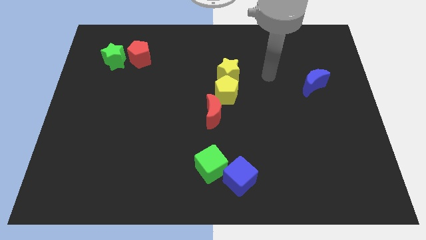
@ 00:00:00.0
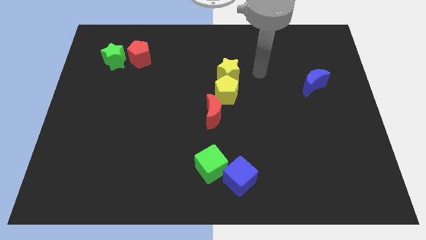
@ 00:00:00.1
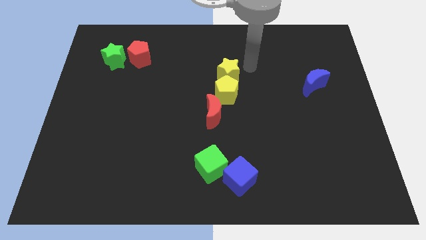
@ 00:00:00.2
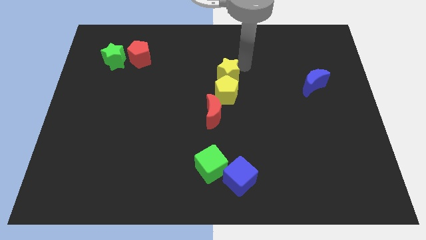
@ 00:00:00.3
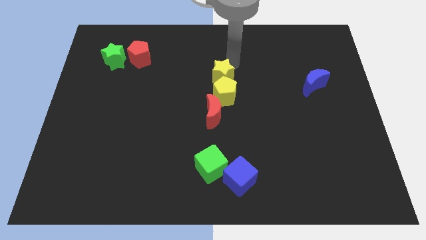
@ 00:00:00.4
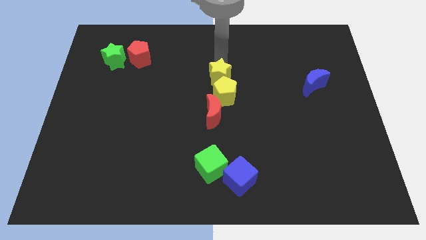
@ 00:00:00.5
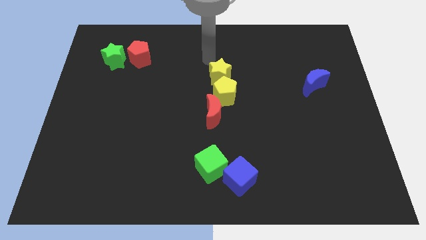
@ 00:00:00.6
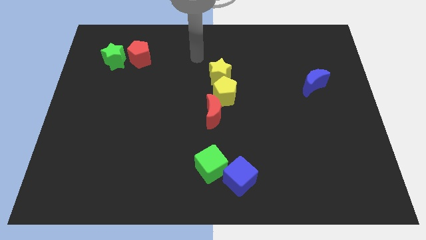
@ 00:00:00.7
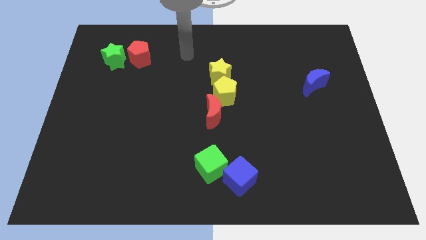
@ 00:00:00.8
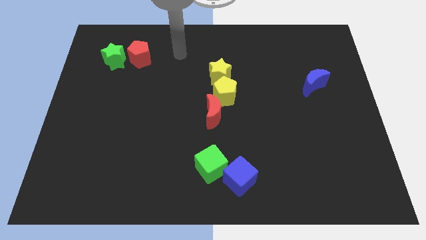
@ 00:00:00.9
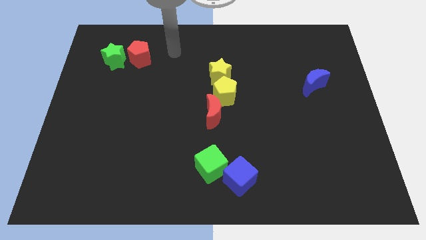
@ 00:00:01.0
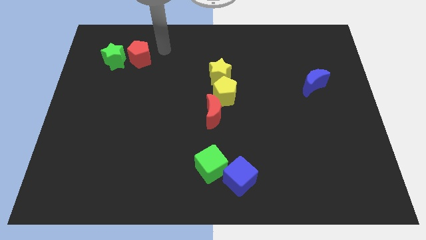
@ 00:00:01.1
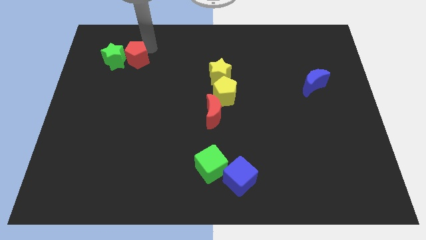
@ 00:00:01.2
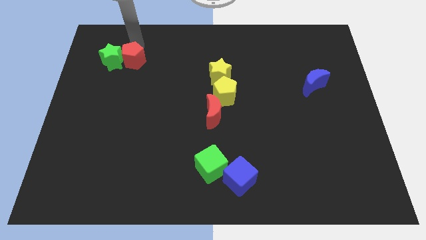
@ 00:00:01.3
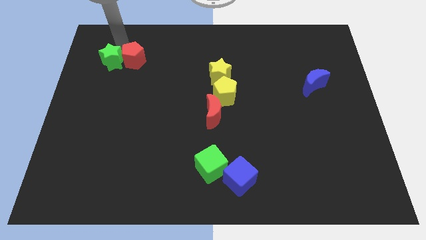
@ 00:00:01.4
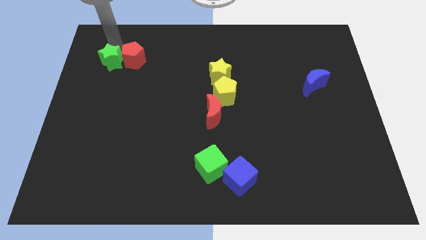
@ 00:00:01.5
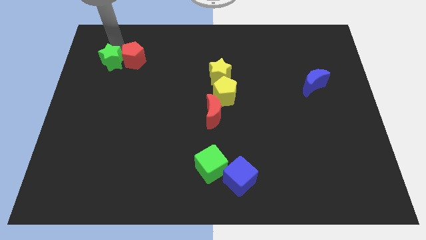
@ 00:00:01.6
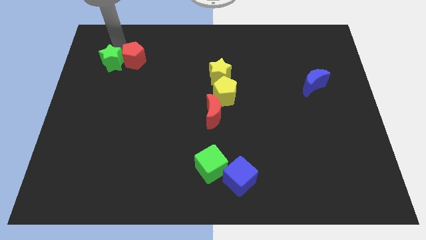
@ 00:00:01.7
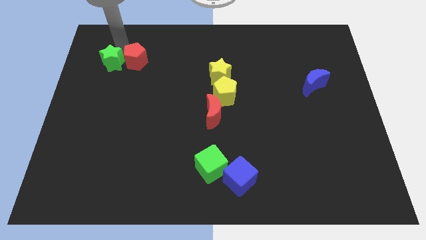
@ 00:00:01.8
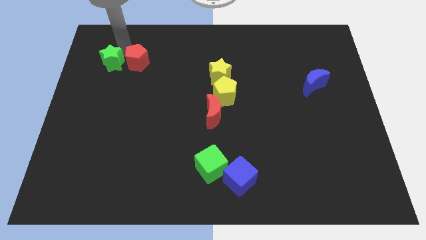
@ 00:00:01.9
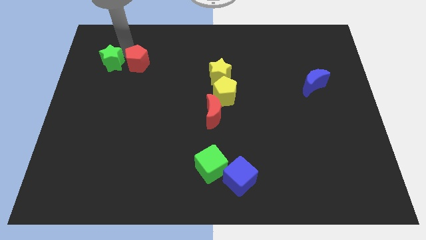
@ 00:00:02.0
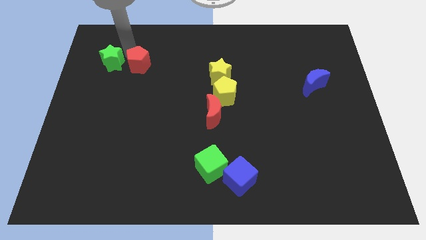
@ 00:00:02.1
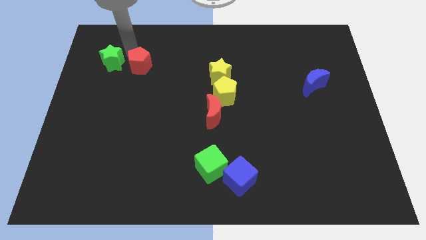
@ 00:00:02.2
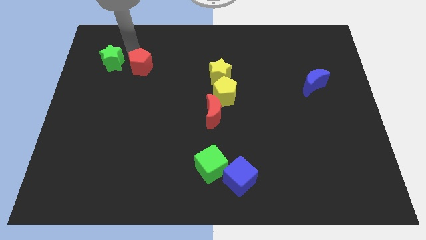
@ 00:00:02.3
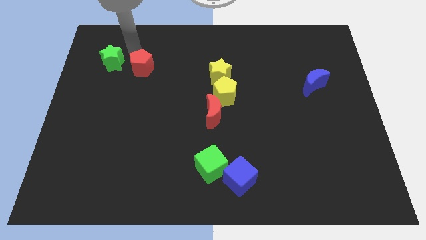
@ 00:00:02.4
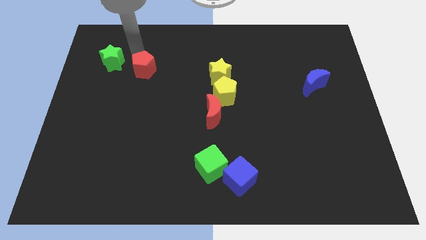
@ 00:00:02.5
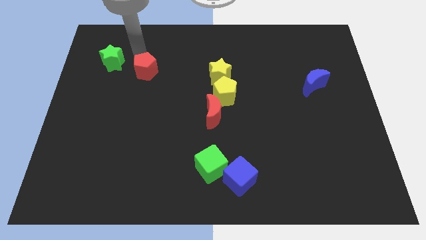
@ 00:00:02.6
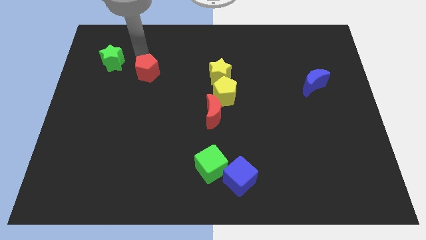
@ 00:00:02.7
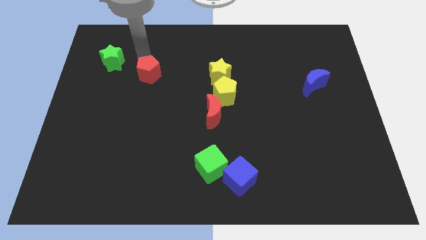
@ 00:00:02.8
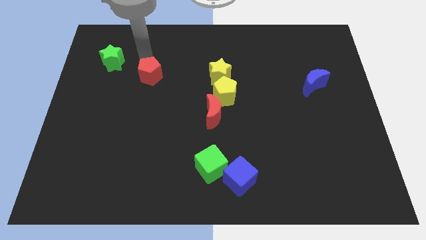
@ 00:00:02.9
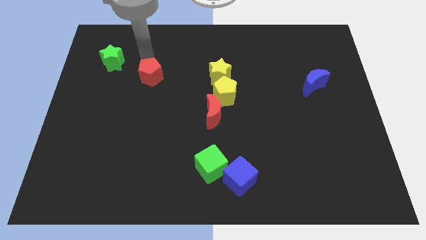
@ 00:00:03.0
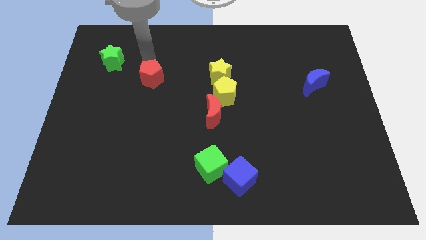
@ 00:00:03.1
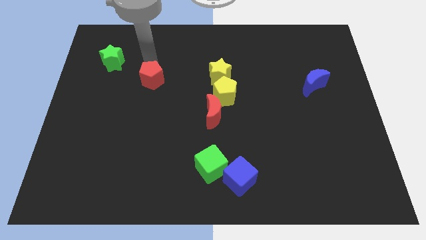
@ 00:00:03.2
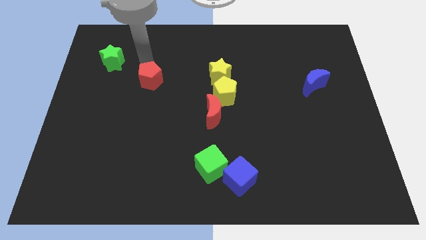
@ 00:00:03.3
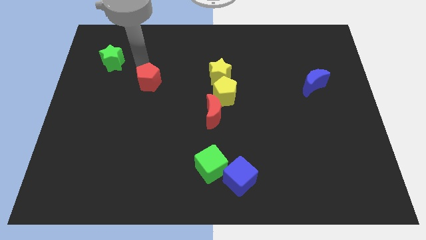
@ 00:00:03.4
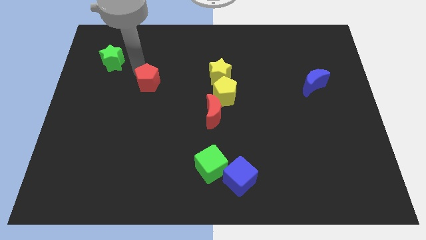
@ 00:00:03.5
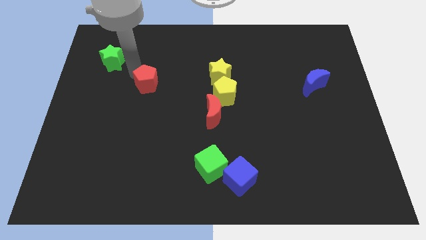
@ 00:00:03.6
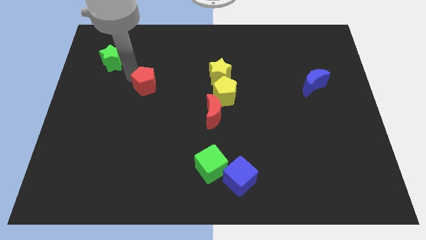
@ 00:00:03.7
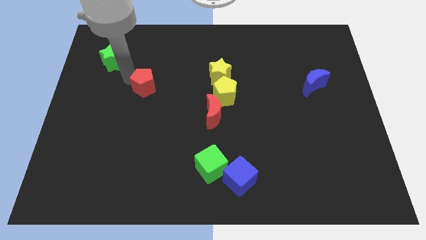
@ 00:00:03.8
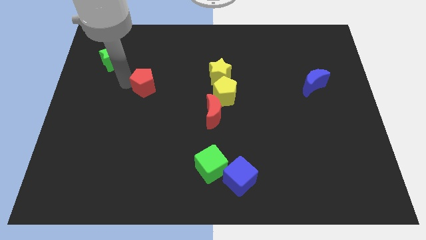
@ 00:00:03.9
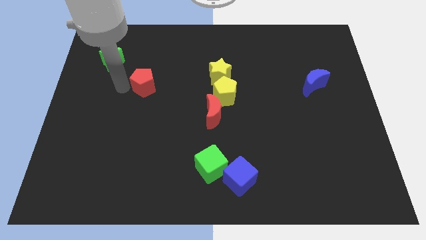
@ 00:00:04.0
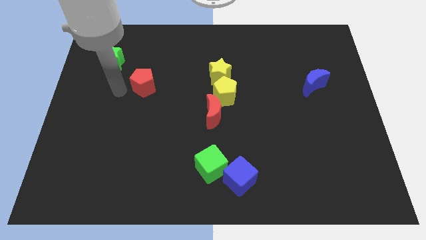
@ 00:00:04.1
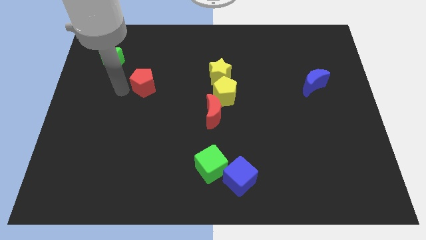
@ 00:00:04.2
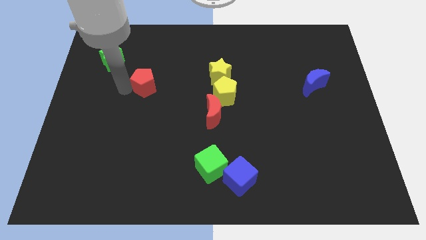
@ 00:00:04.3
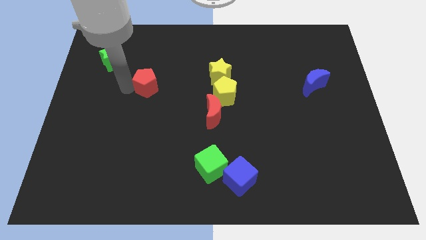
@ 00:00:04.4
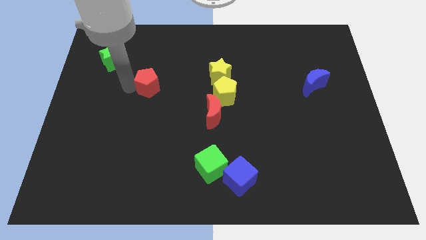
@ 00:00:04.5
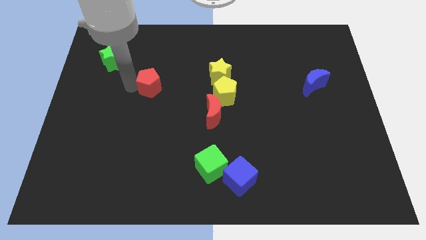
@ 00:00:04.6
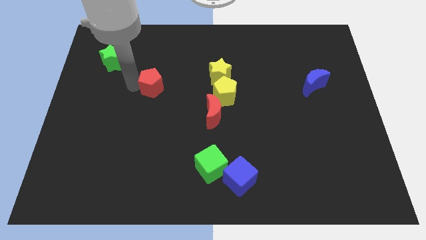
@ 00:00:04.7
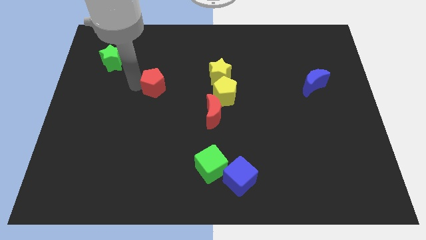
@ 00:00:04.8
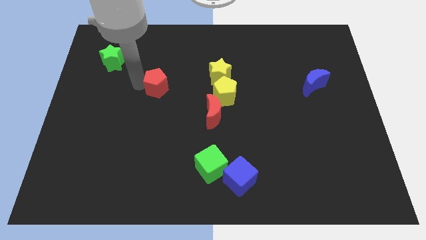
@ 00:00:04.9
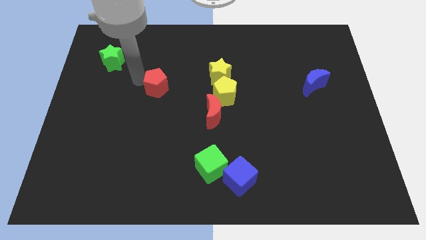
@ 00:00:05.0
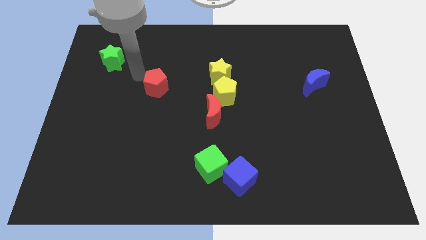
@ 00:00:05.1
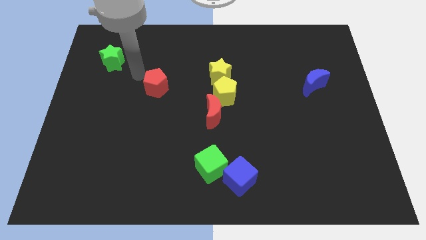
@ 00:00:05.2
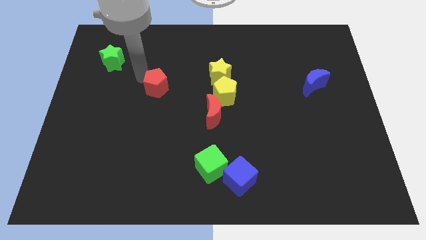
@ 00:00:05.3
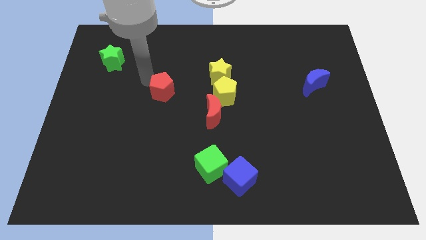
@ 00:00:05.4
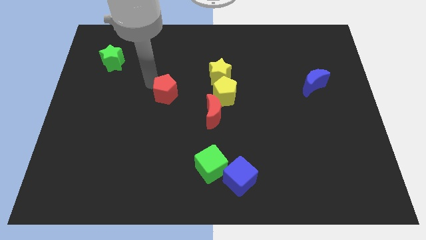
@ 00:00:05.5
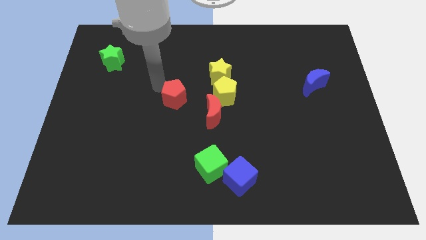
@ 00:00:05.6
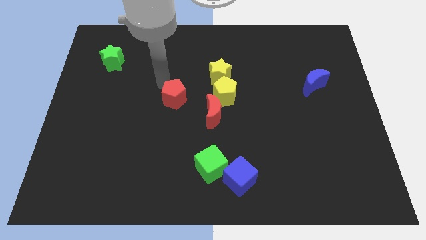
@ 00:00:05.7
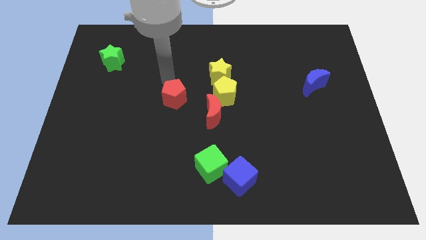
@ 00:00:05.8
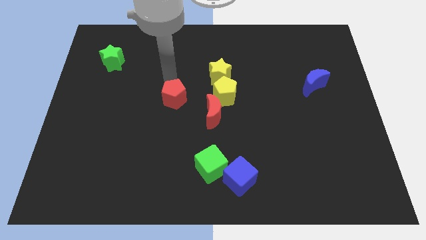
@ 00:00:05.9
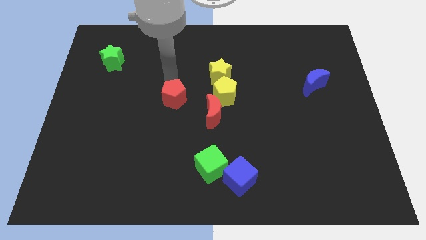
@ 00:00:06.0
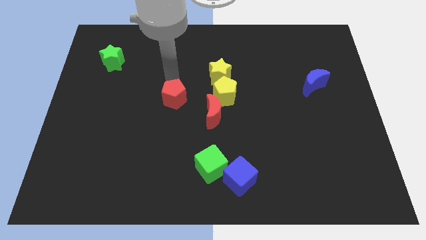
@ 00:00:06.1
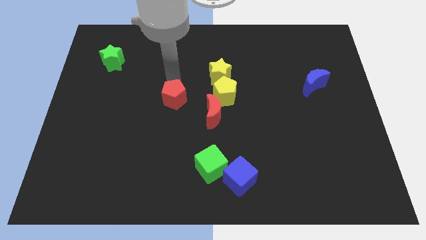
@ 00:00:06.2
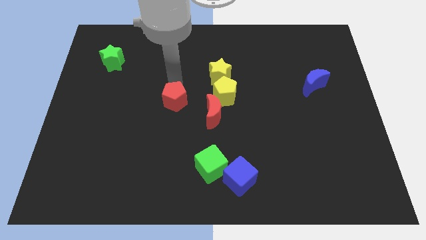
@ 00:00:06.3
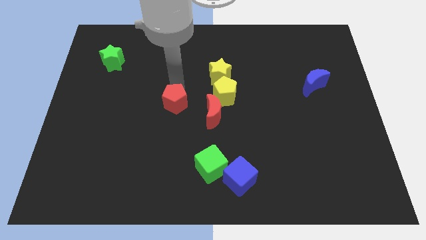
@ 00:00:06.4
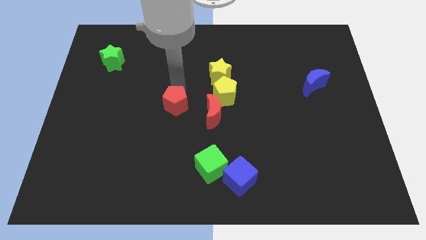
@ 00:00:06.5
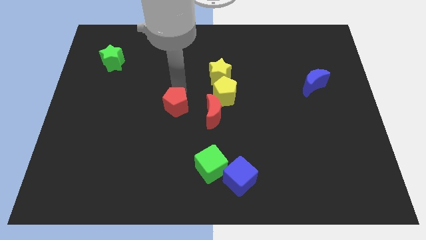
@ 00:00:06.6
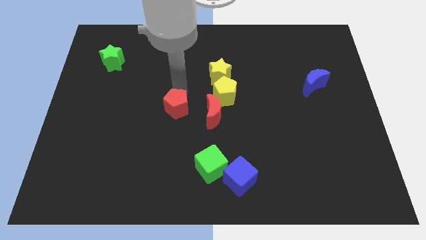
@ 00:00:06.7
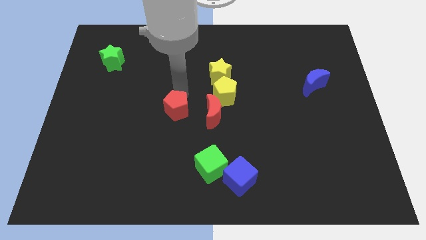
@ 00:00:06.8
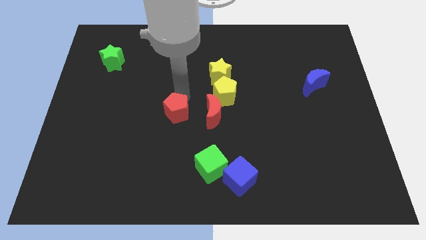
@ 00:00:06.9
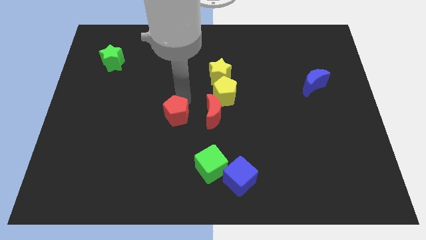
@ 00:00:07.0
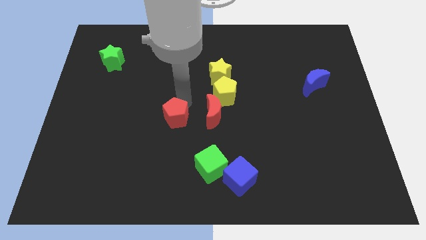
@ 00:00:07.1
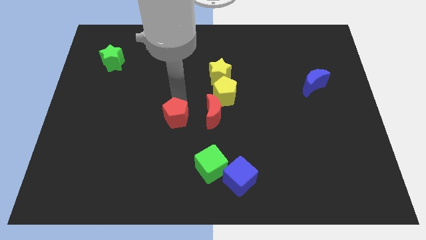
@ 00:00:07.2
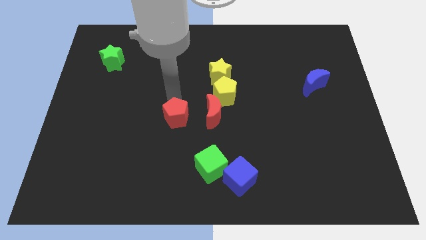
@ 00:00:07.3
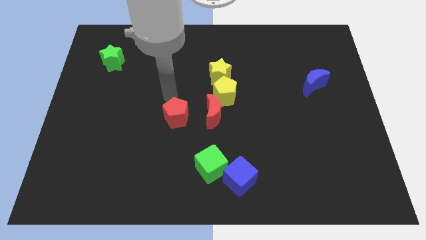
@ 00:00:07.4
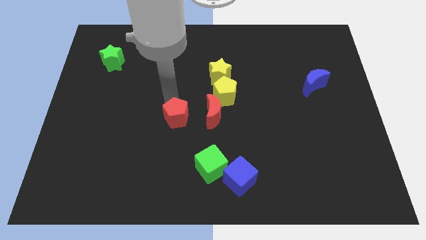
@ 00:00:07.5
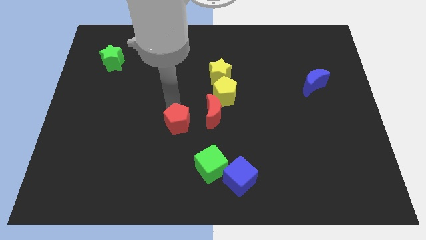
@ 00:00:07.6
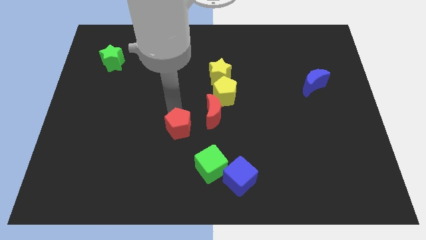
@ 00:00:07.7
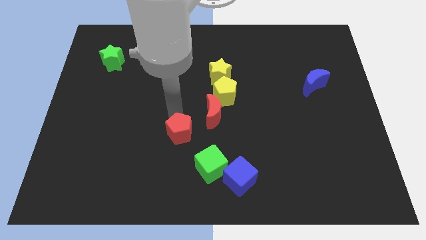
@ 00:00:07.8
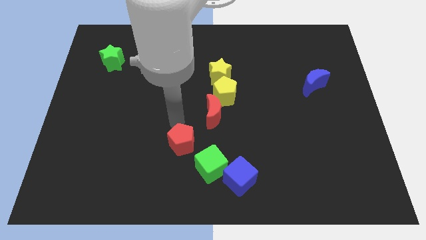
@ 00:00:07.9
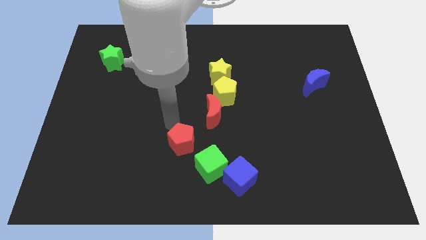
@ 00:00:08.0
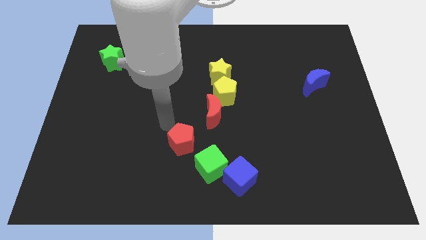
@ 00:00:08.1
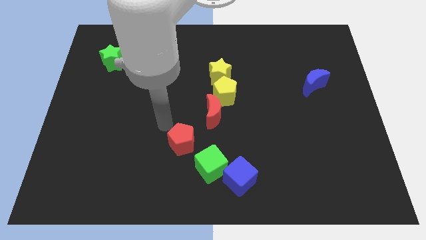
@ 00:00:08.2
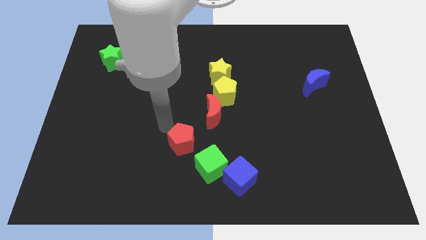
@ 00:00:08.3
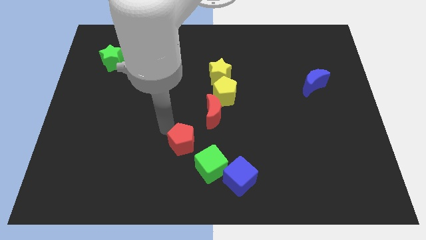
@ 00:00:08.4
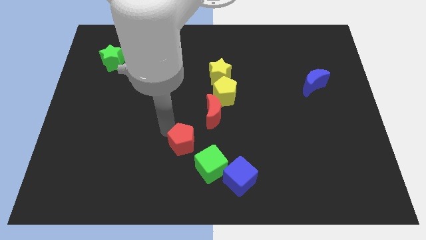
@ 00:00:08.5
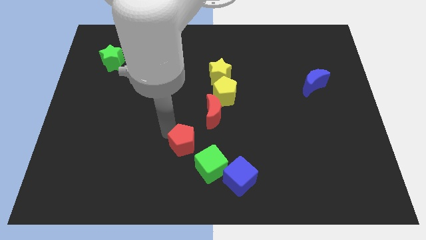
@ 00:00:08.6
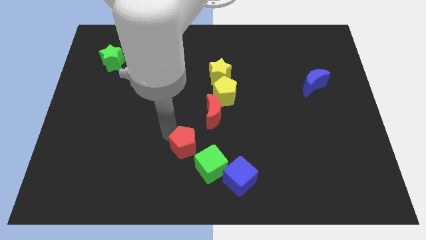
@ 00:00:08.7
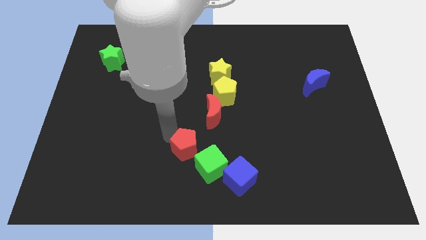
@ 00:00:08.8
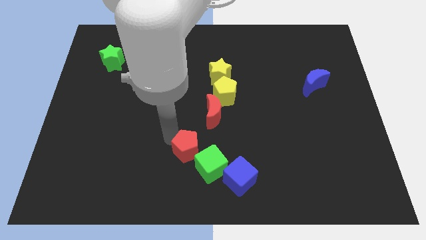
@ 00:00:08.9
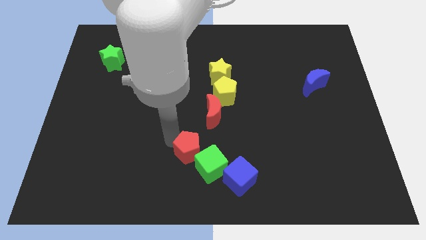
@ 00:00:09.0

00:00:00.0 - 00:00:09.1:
put the red pentagon next to the green cube
